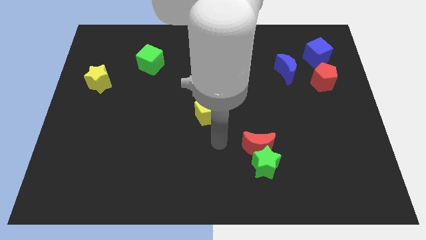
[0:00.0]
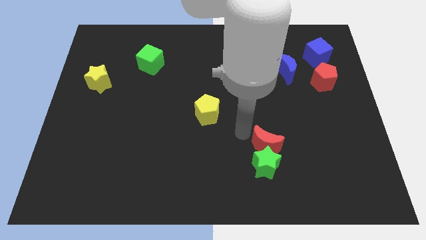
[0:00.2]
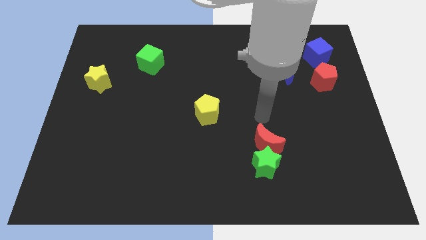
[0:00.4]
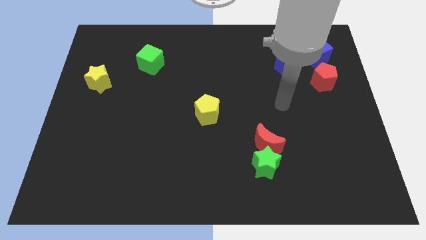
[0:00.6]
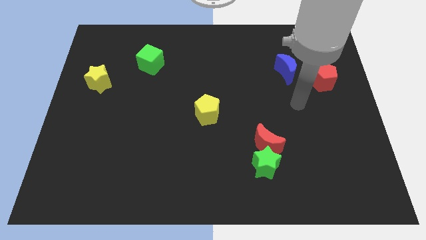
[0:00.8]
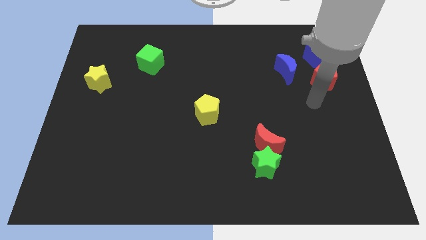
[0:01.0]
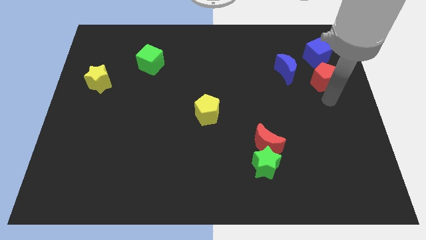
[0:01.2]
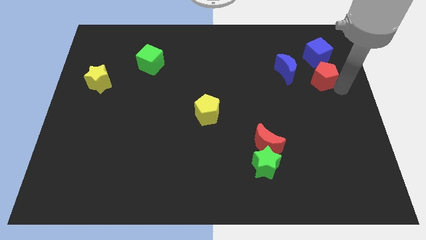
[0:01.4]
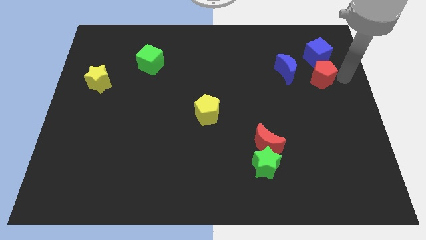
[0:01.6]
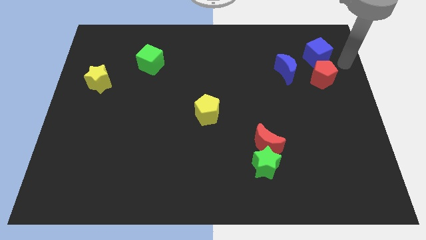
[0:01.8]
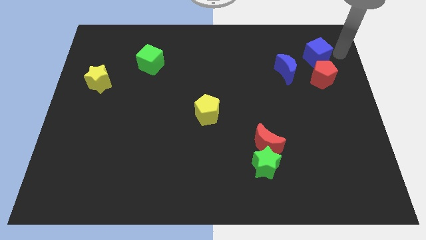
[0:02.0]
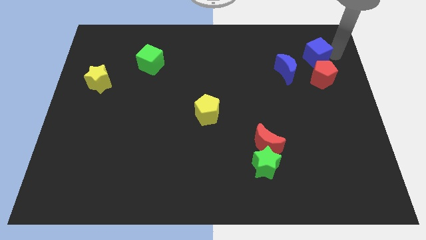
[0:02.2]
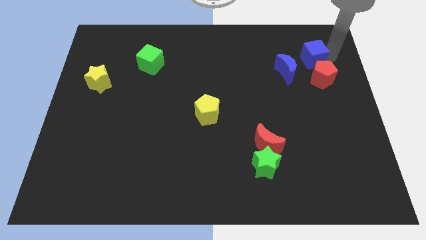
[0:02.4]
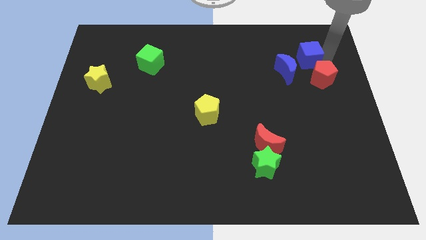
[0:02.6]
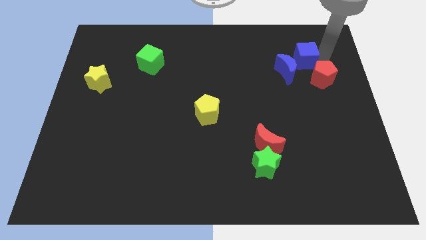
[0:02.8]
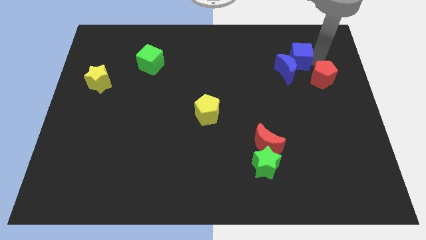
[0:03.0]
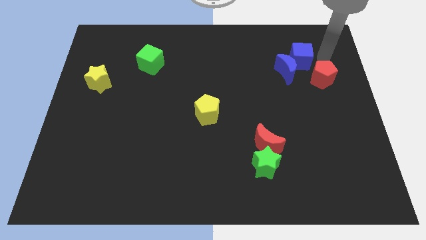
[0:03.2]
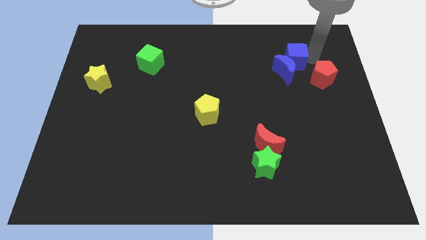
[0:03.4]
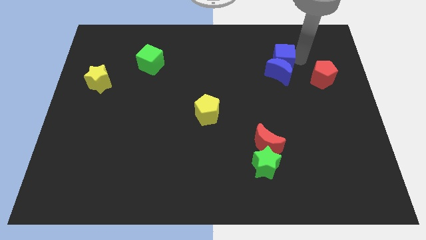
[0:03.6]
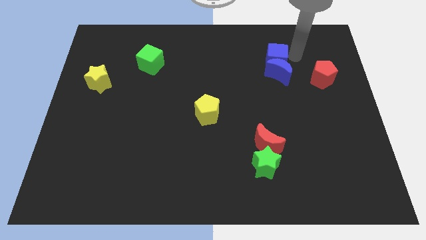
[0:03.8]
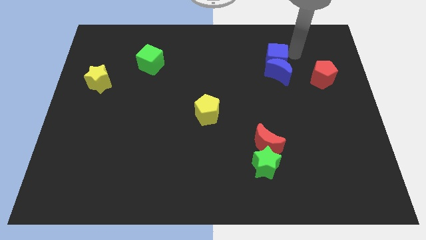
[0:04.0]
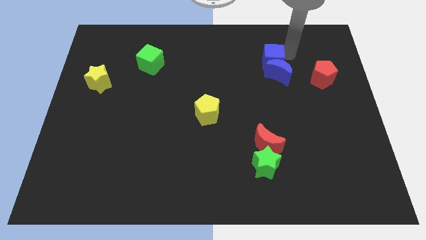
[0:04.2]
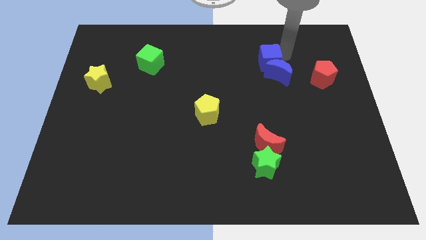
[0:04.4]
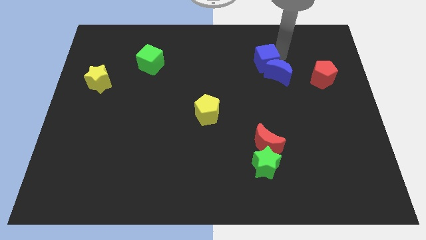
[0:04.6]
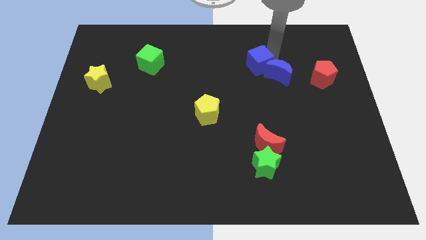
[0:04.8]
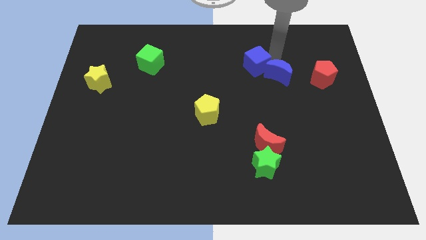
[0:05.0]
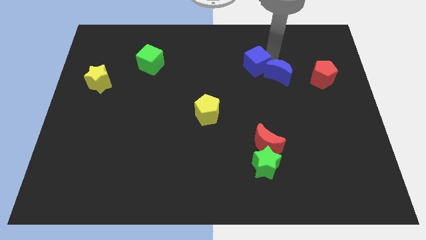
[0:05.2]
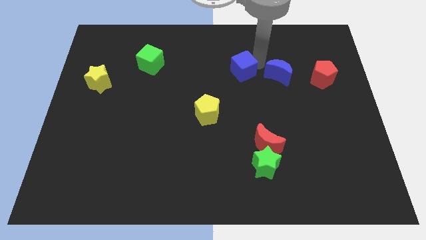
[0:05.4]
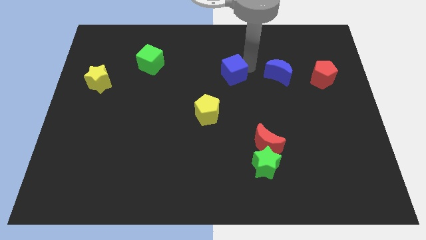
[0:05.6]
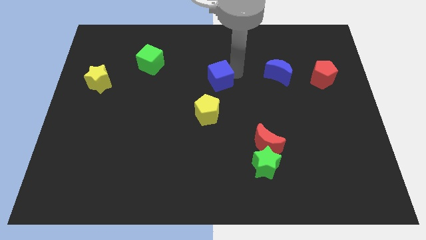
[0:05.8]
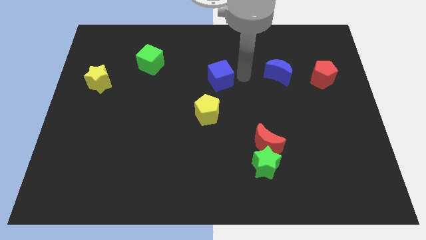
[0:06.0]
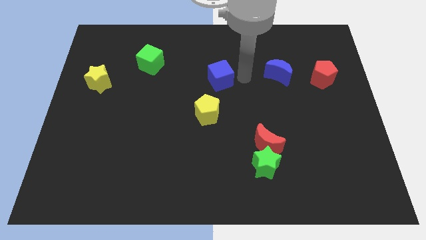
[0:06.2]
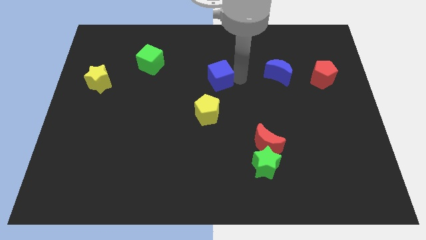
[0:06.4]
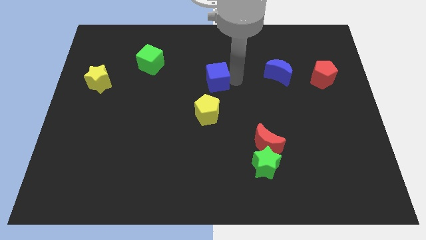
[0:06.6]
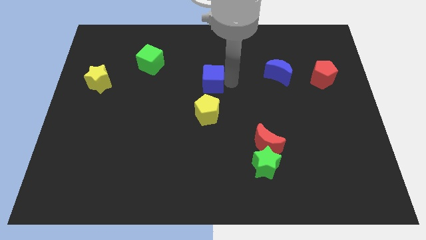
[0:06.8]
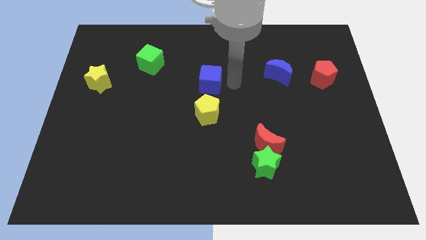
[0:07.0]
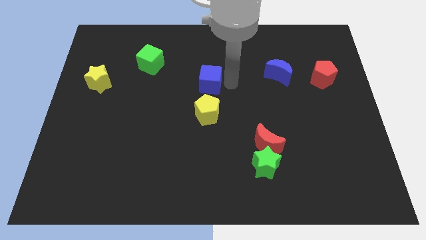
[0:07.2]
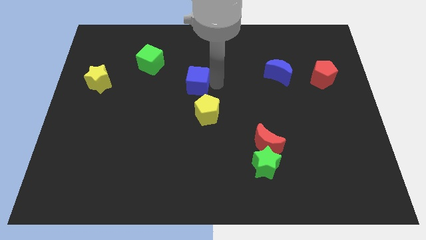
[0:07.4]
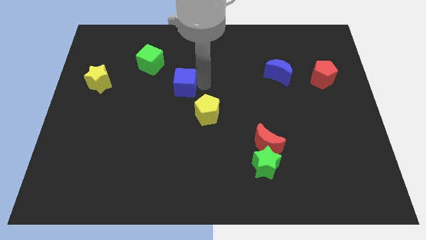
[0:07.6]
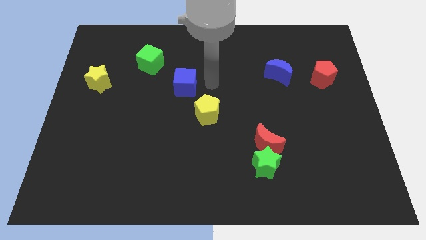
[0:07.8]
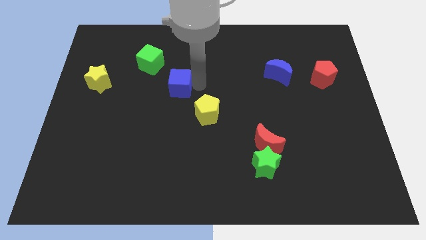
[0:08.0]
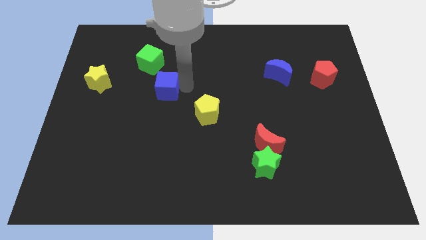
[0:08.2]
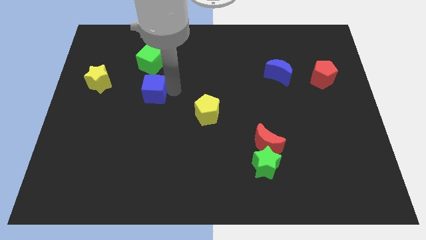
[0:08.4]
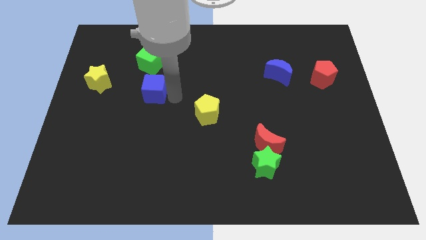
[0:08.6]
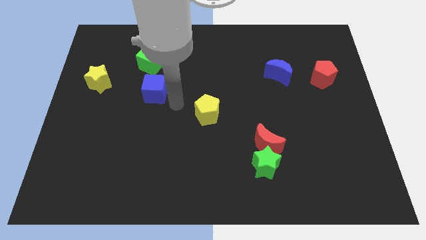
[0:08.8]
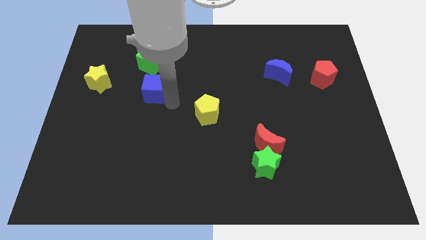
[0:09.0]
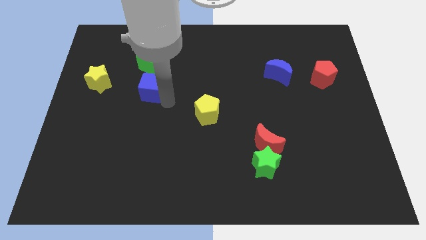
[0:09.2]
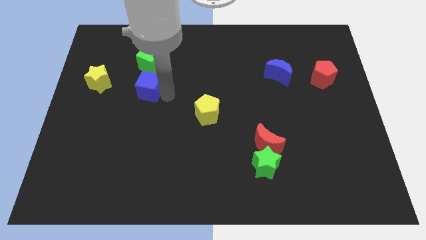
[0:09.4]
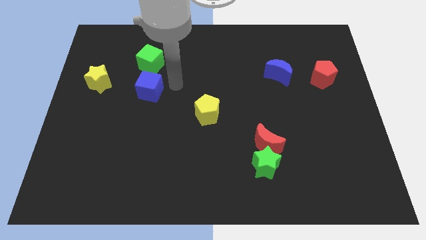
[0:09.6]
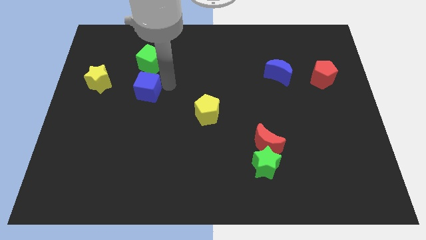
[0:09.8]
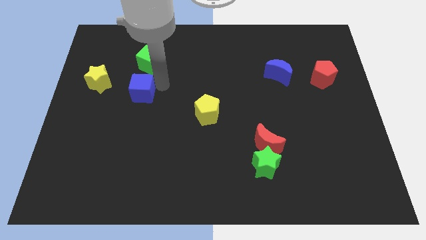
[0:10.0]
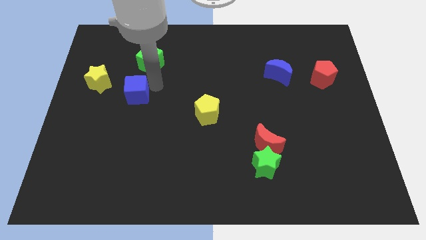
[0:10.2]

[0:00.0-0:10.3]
slide the blue cube to the bottom right of the yellow star
